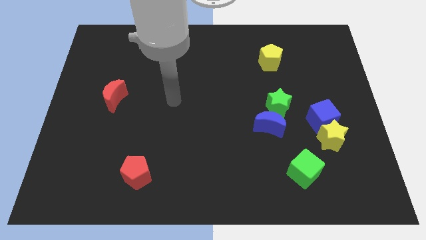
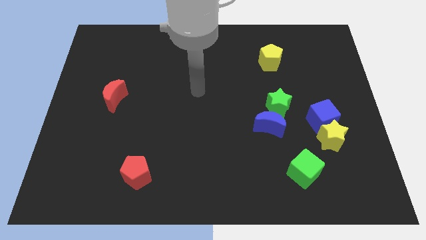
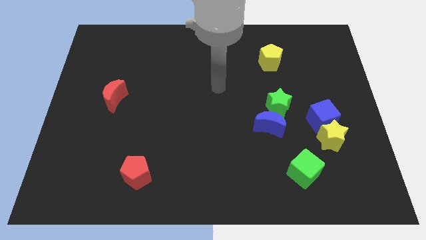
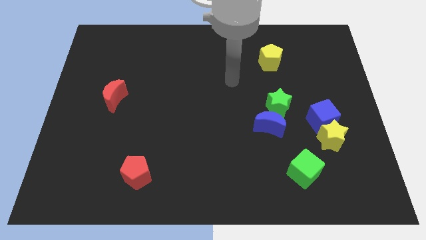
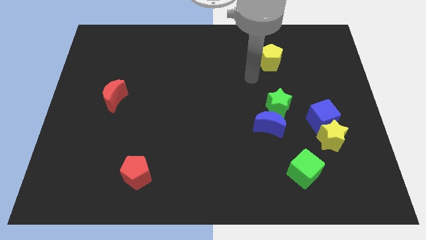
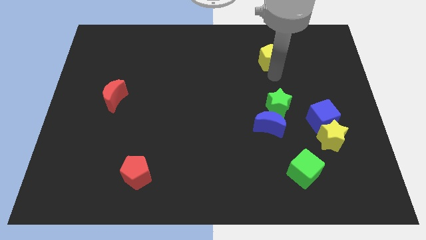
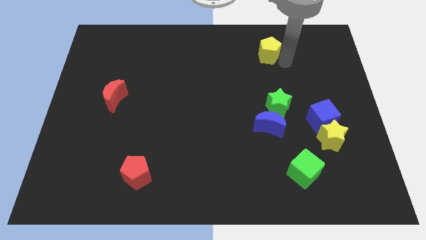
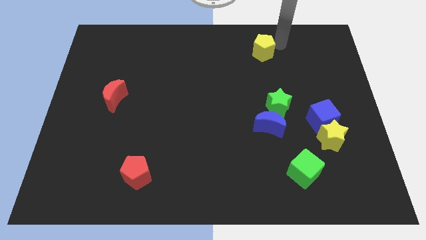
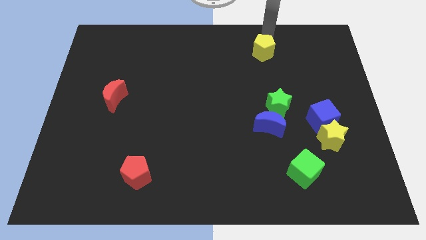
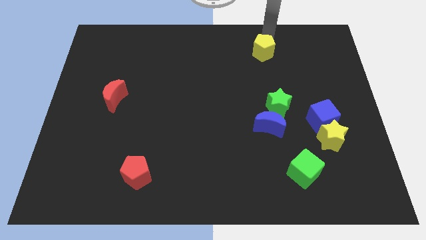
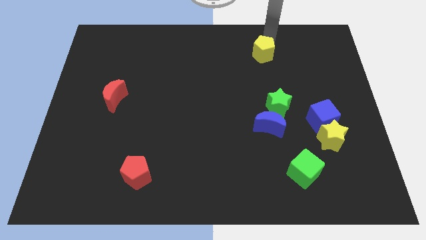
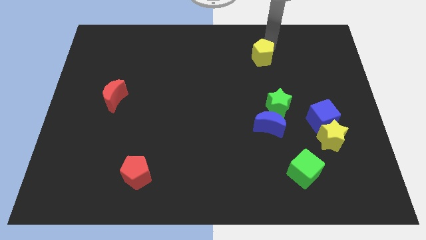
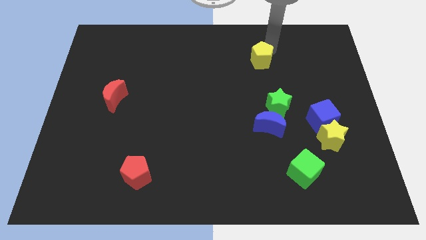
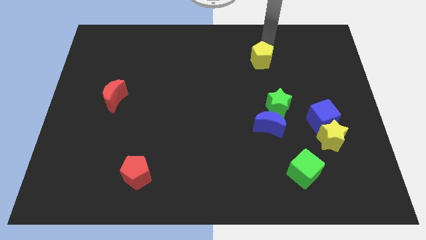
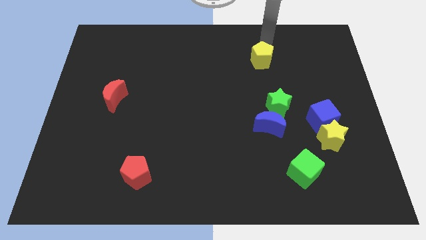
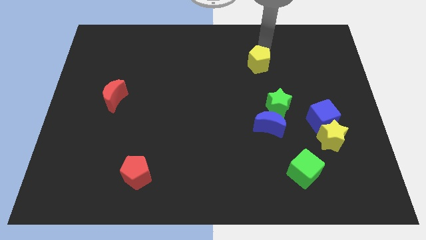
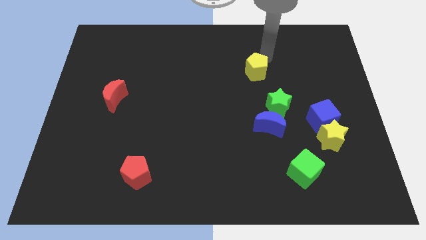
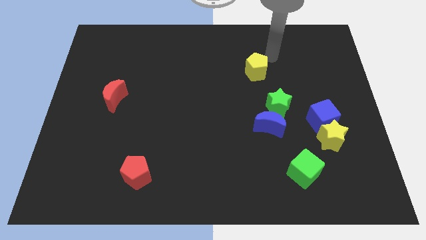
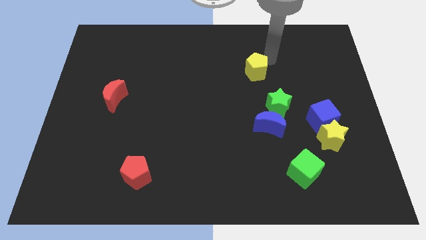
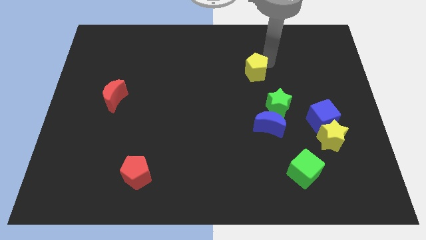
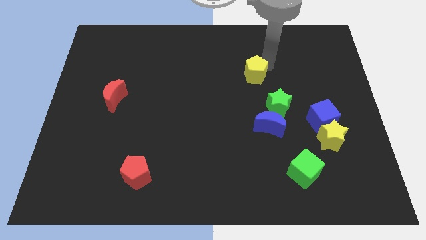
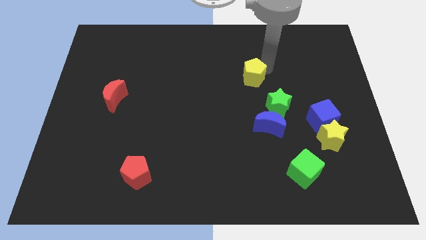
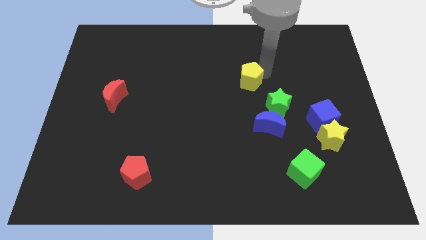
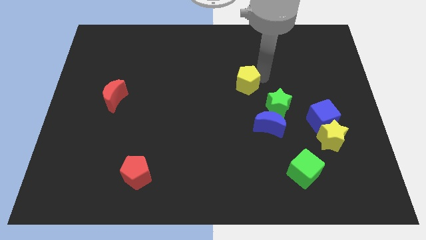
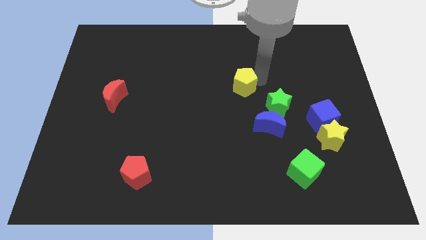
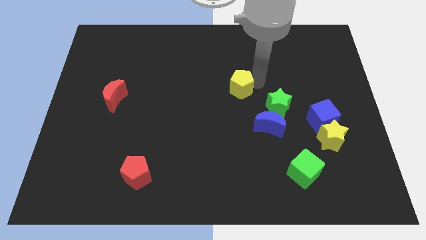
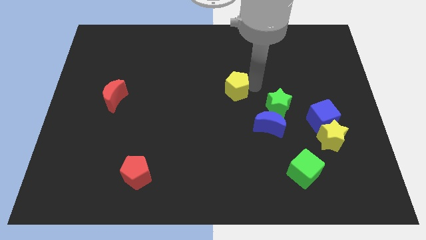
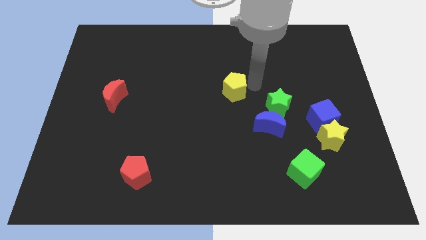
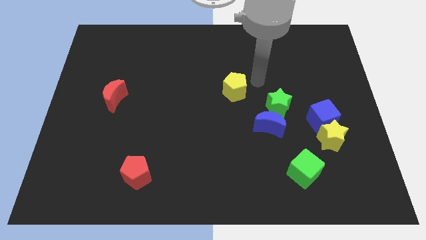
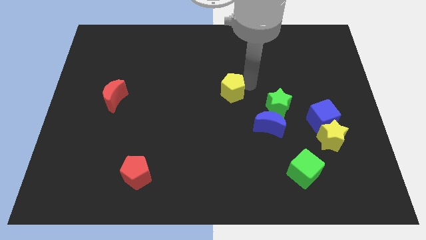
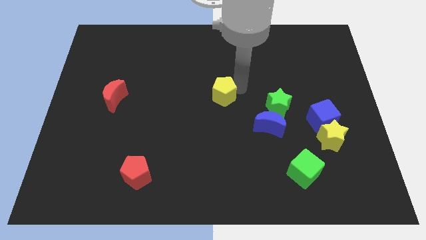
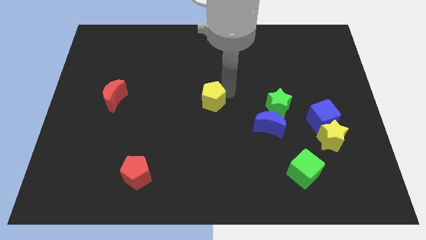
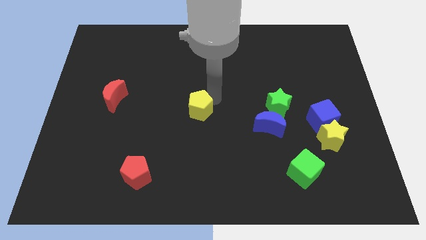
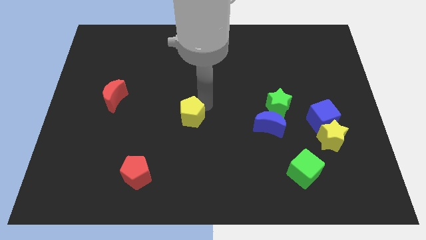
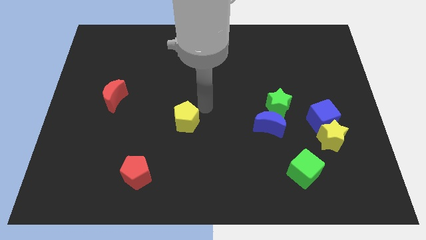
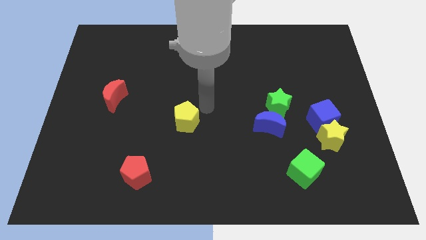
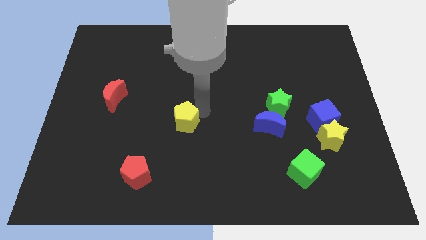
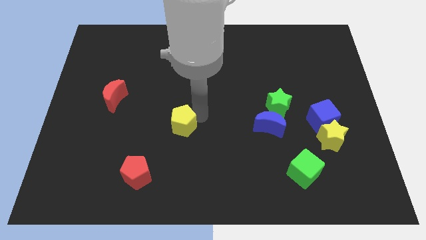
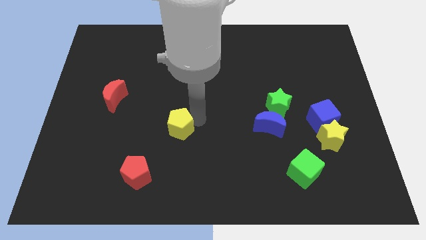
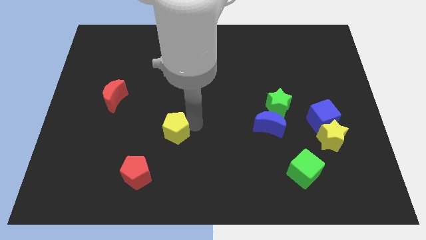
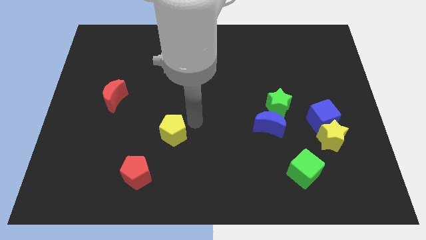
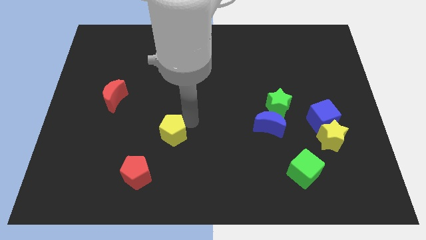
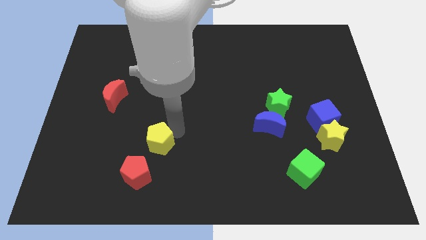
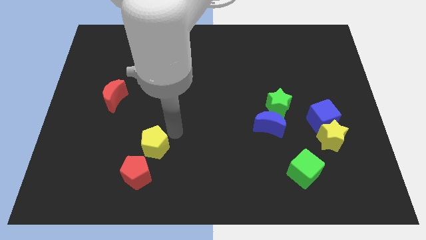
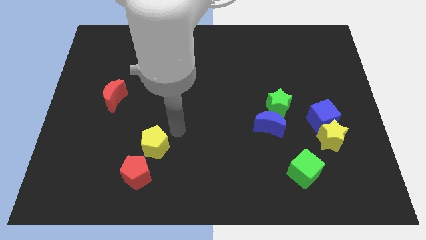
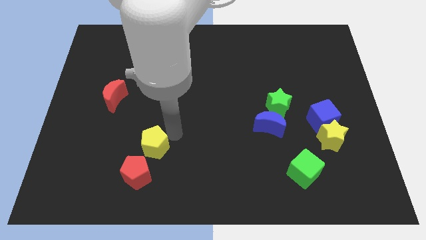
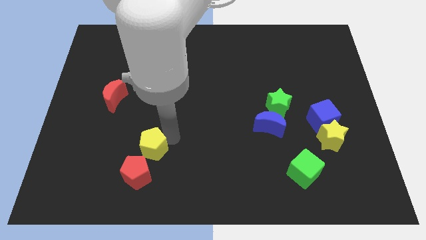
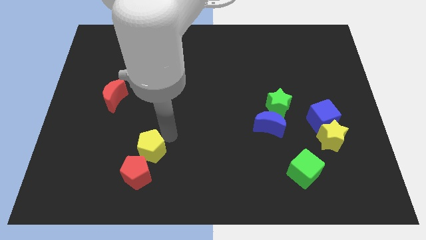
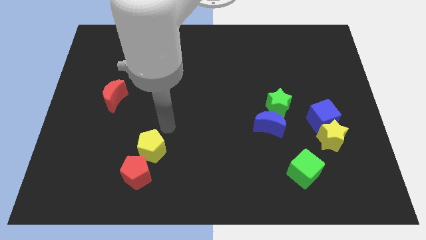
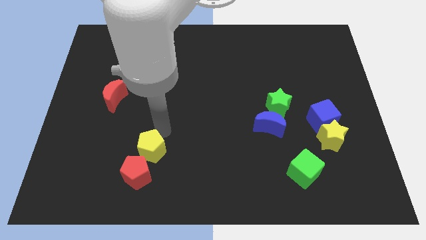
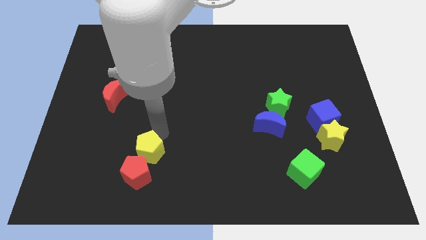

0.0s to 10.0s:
put the yellow pentagon close to the red pentagon

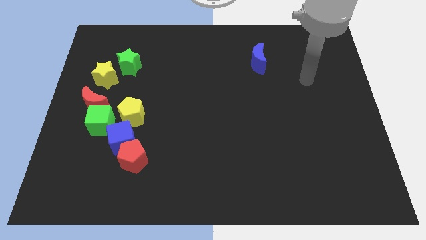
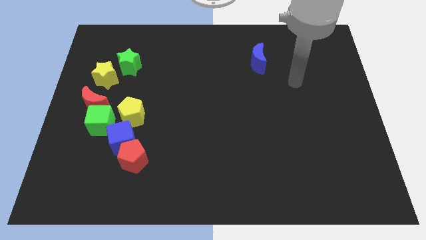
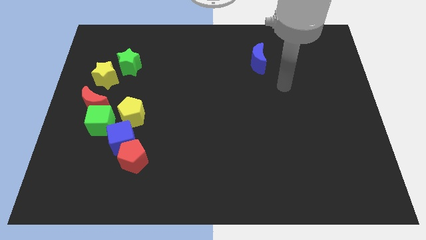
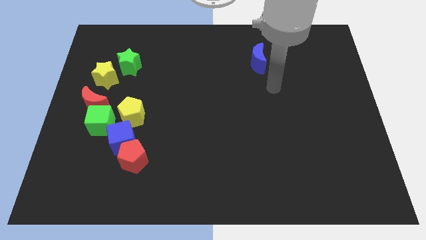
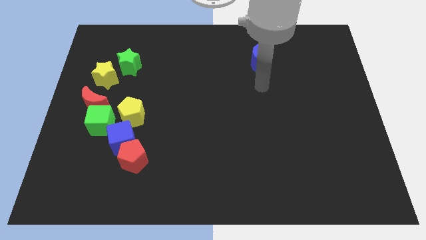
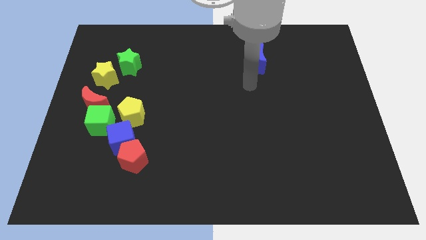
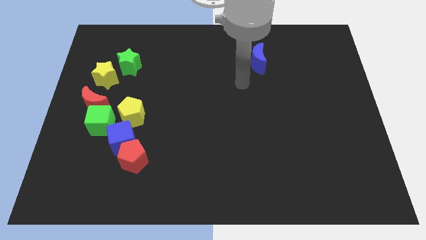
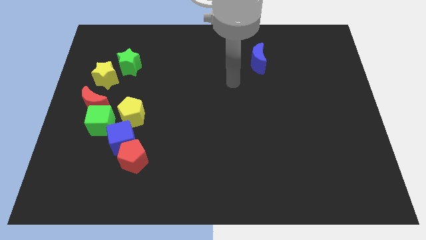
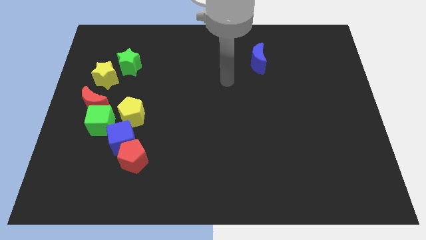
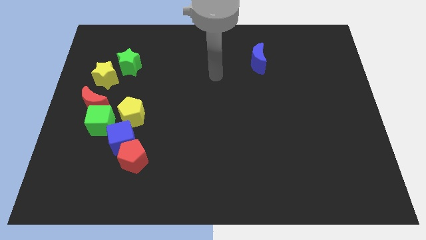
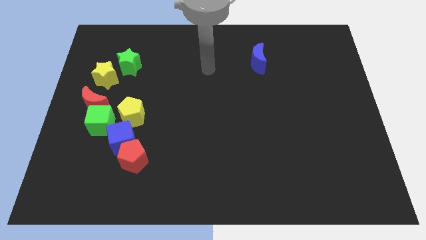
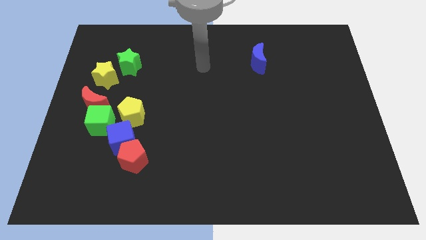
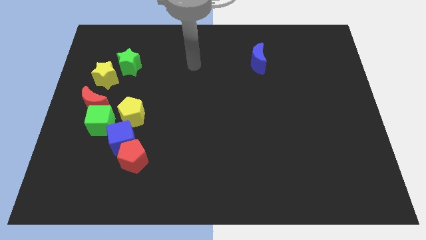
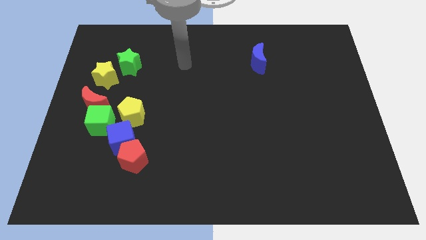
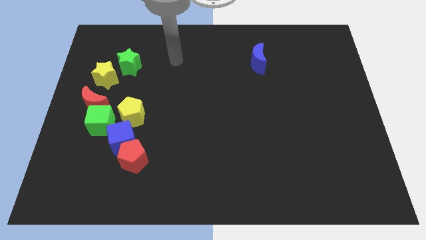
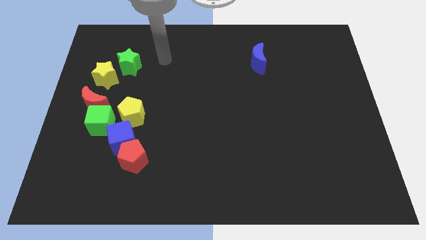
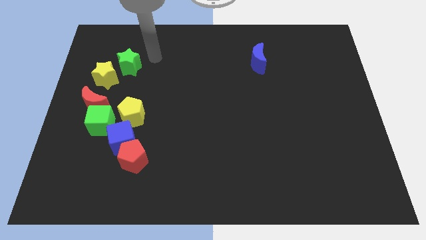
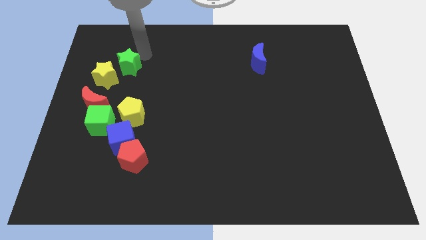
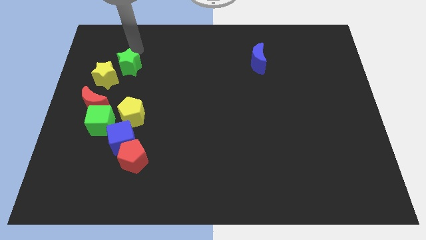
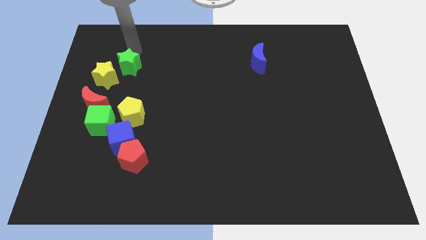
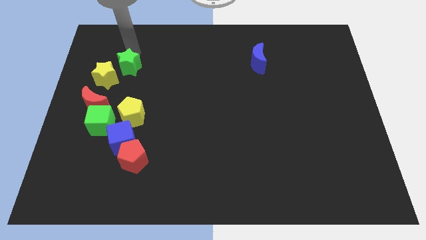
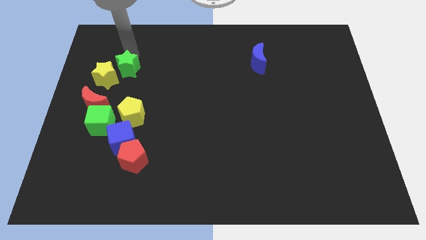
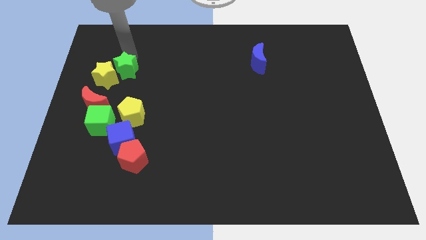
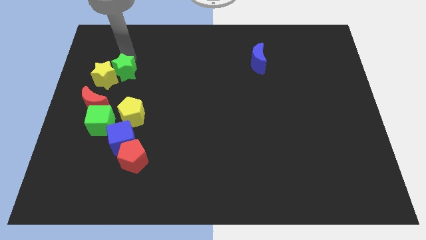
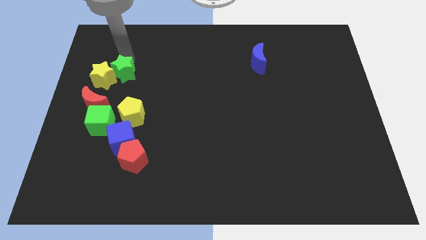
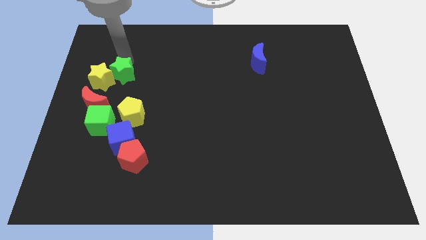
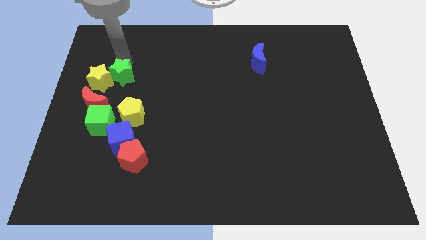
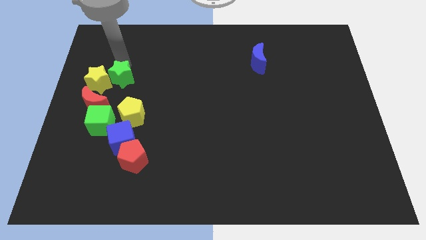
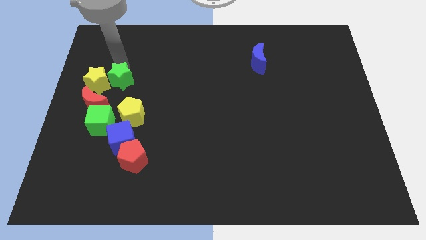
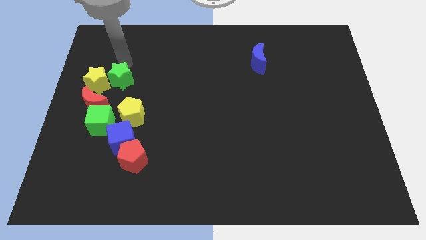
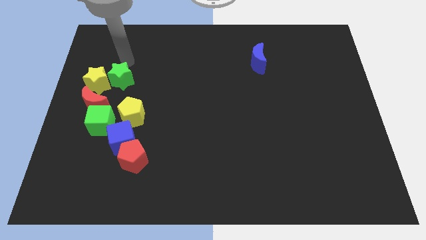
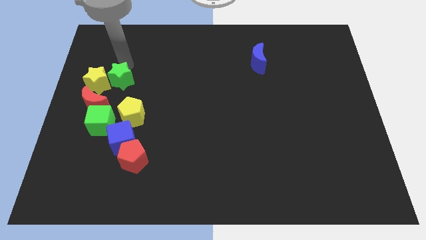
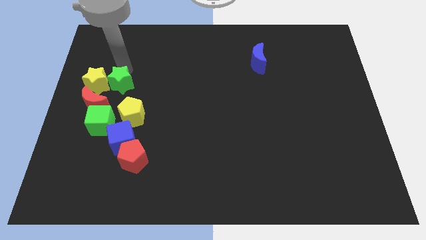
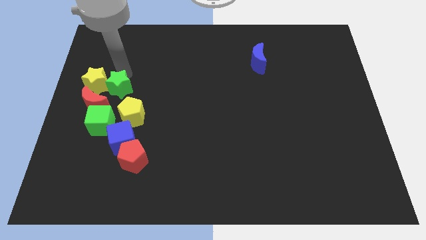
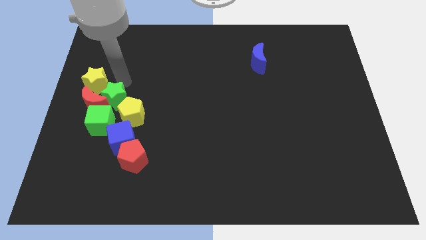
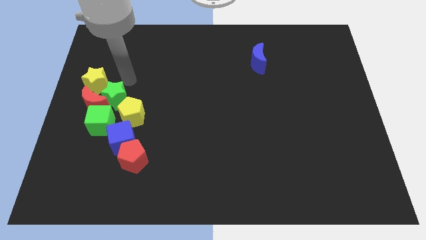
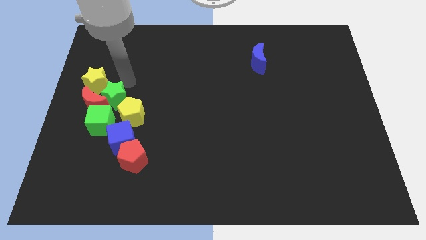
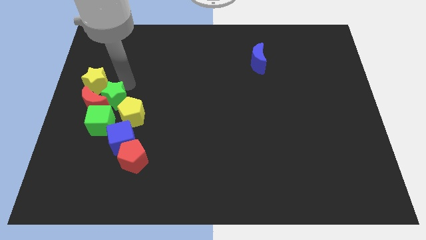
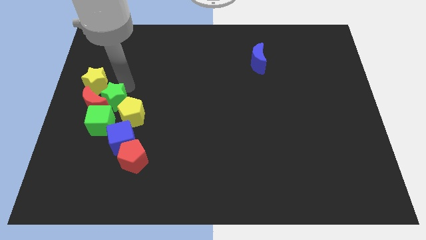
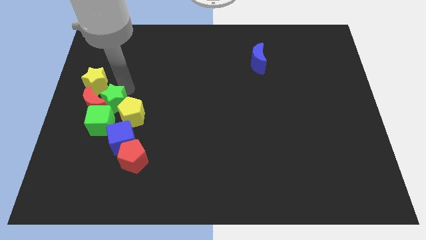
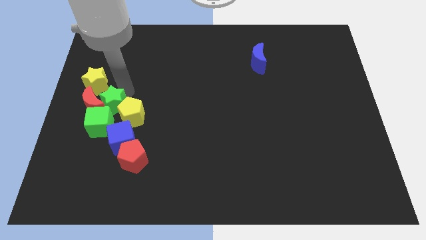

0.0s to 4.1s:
slide the green star towards the green cube
